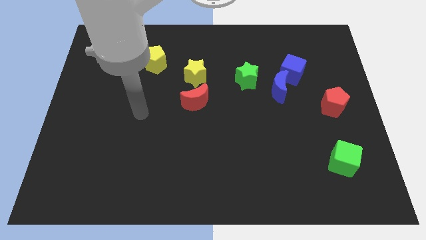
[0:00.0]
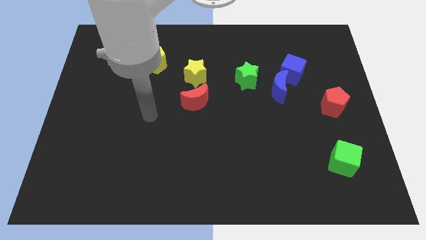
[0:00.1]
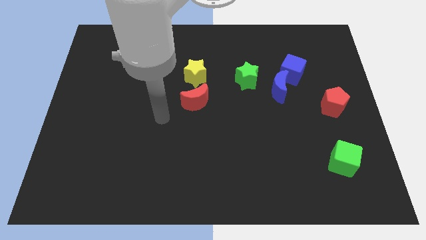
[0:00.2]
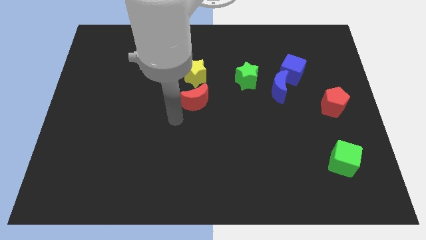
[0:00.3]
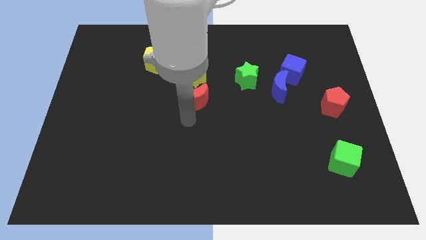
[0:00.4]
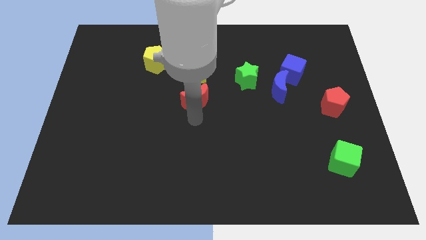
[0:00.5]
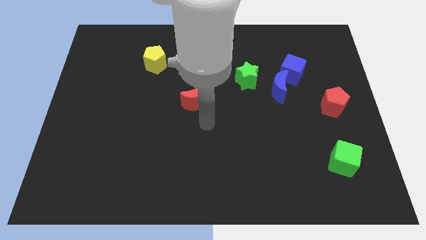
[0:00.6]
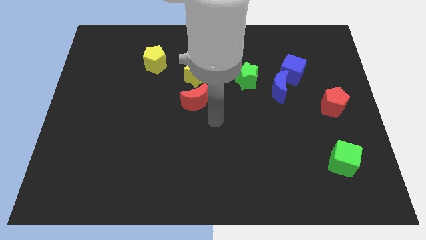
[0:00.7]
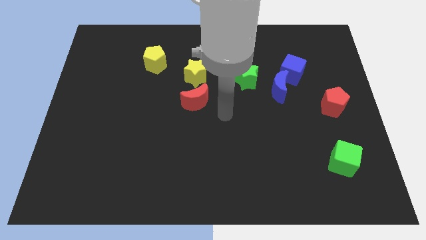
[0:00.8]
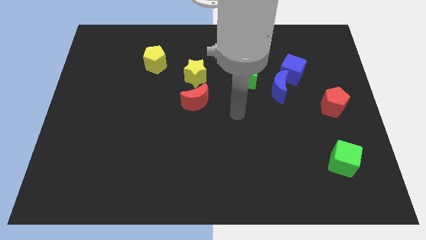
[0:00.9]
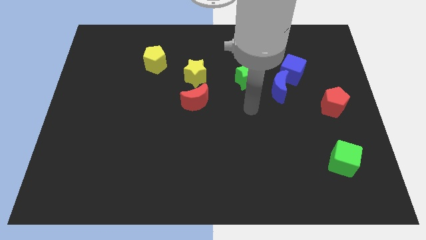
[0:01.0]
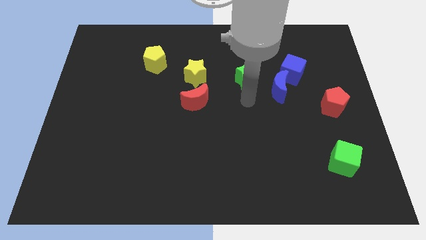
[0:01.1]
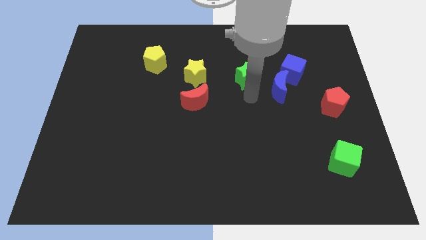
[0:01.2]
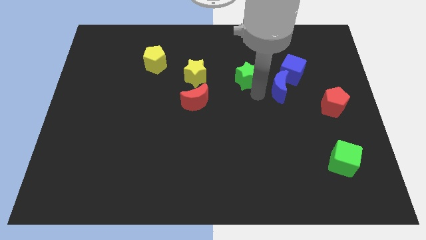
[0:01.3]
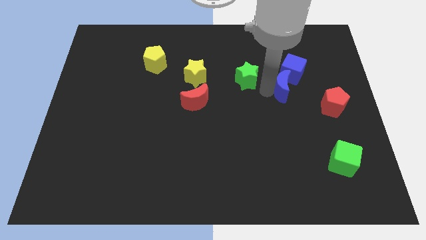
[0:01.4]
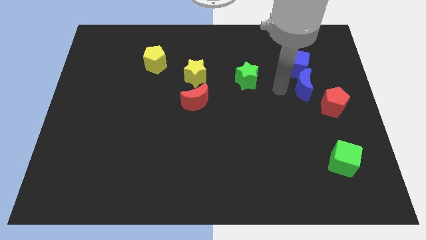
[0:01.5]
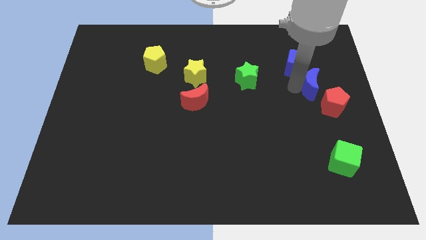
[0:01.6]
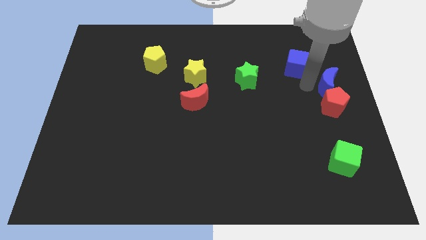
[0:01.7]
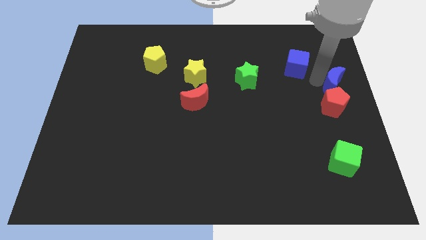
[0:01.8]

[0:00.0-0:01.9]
pull the blue cube apart from the blue moon

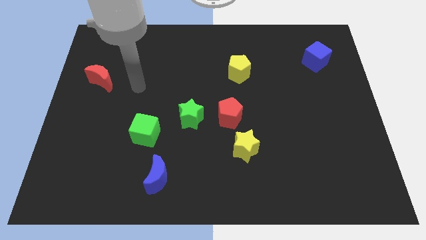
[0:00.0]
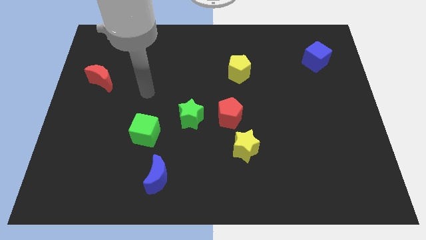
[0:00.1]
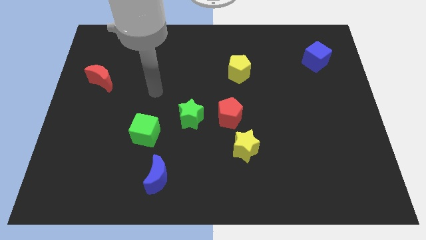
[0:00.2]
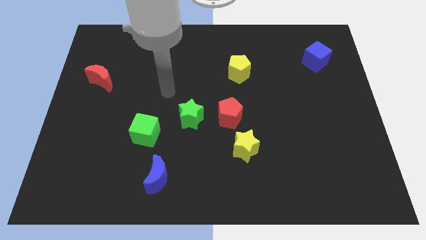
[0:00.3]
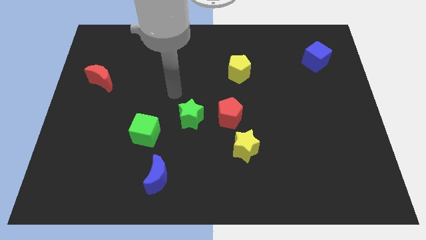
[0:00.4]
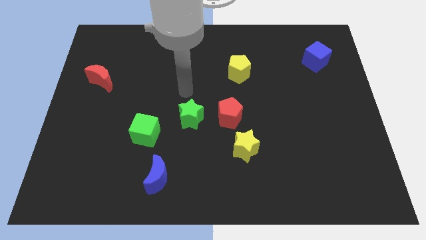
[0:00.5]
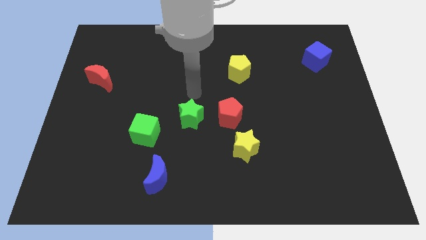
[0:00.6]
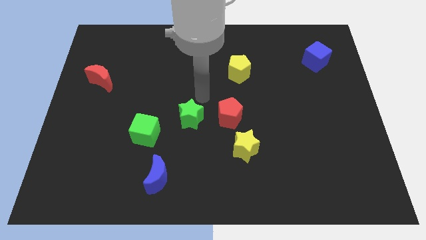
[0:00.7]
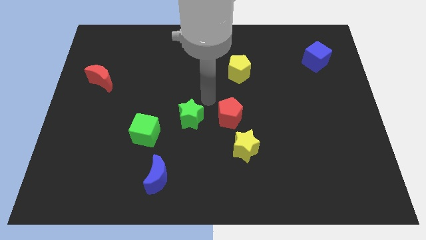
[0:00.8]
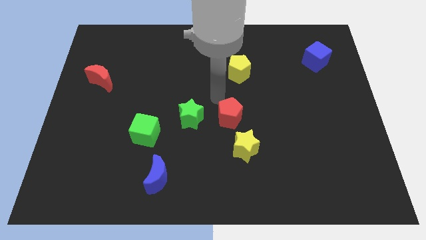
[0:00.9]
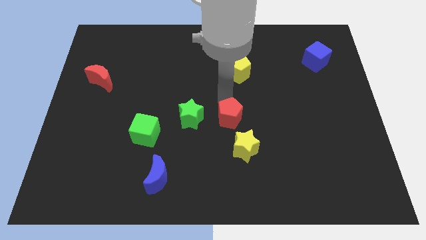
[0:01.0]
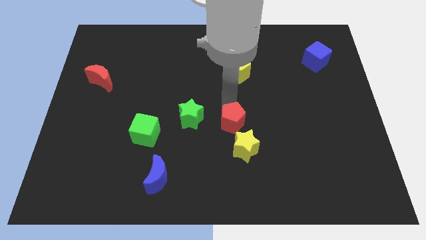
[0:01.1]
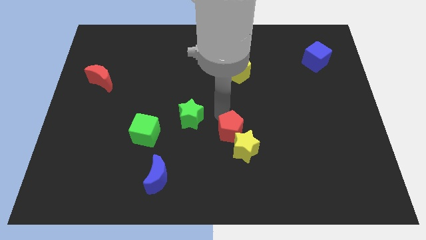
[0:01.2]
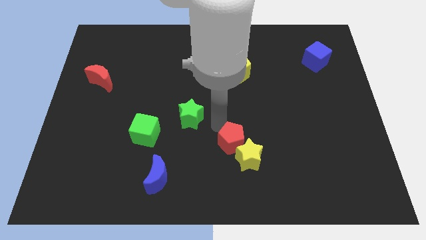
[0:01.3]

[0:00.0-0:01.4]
separate the green star from the red pentagon

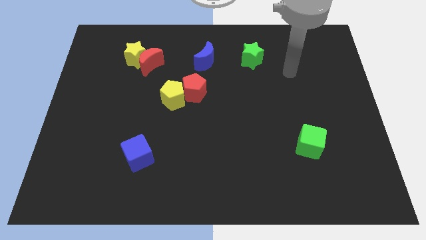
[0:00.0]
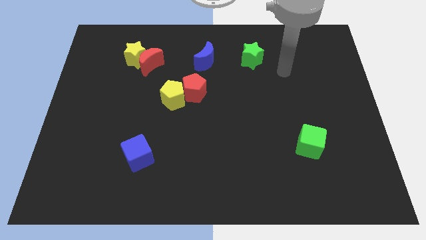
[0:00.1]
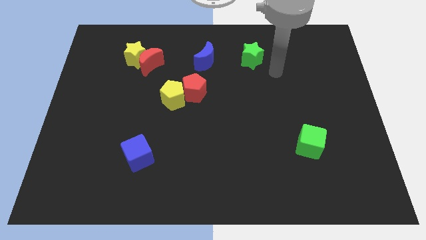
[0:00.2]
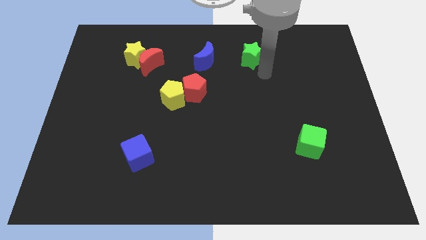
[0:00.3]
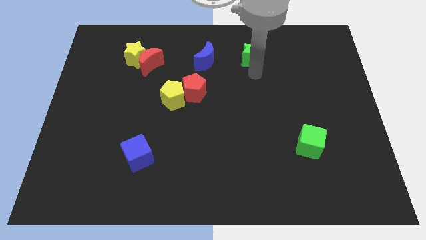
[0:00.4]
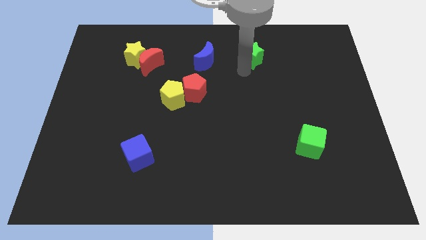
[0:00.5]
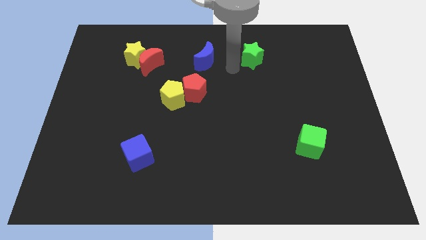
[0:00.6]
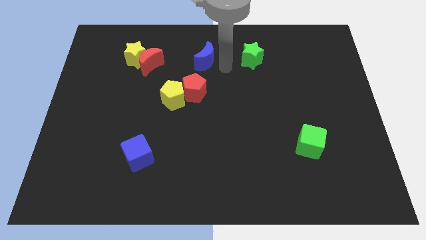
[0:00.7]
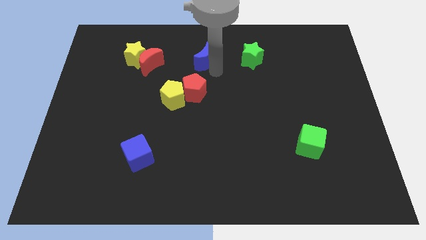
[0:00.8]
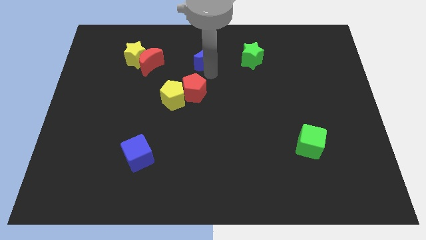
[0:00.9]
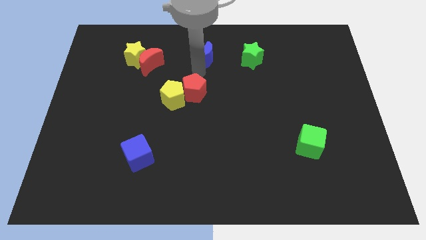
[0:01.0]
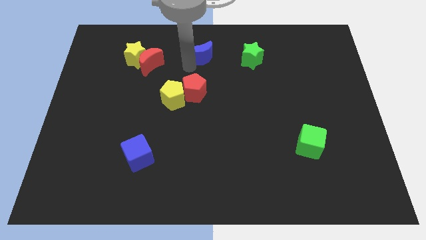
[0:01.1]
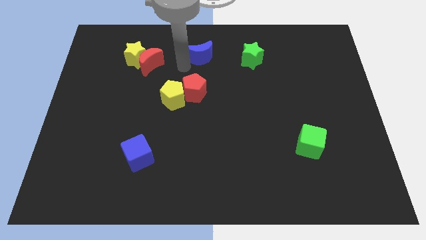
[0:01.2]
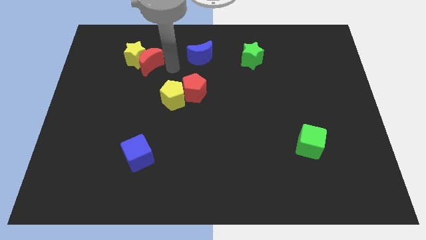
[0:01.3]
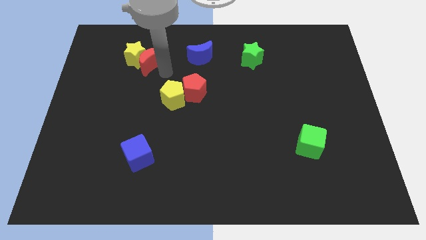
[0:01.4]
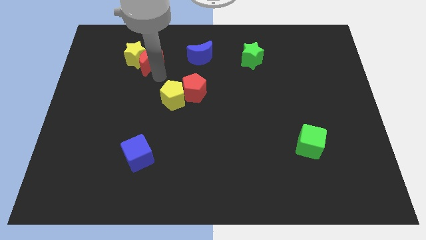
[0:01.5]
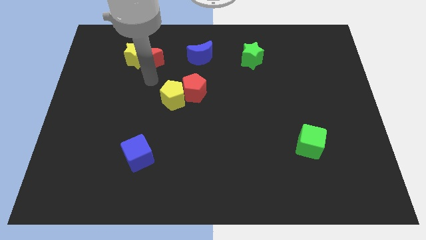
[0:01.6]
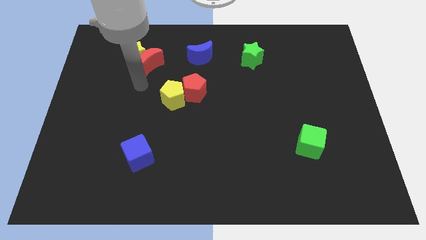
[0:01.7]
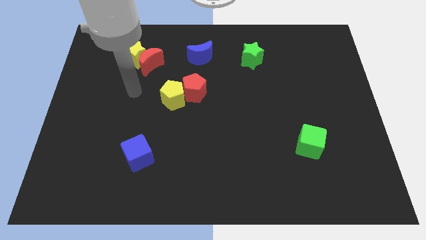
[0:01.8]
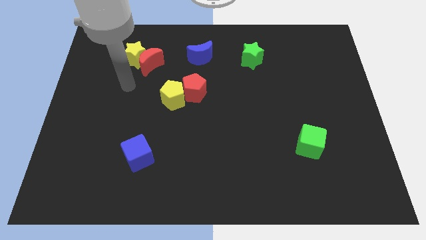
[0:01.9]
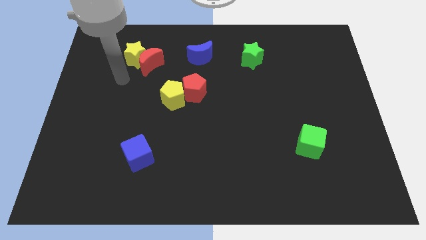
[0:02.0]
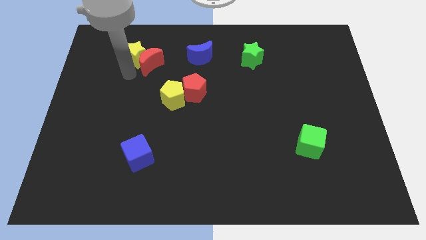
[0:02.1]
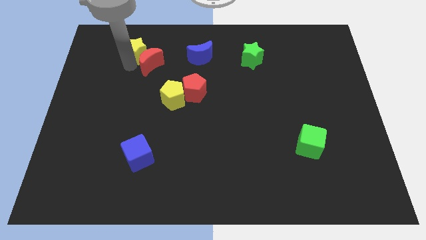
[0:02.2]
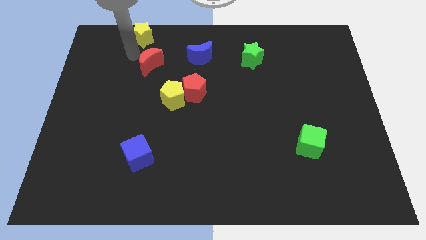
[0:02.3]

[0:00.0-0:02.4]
separate the red moon from the yellow star

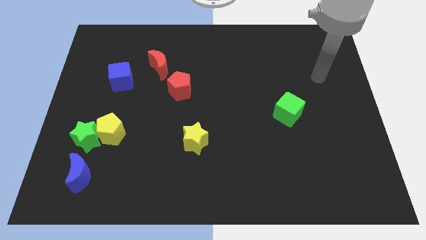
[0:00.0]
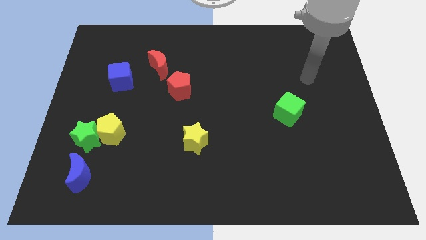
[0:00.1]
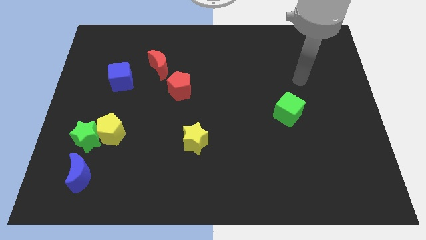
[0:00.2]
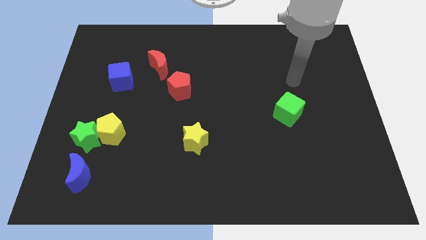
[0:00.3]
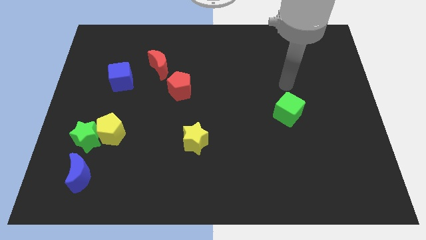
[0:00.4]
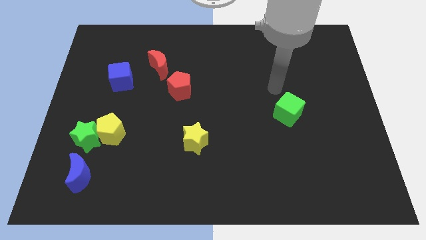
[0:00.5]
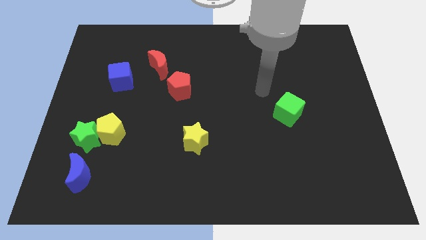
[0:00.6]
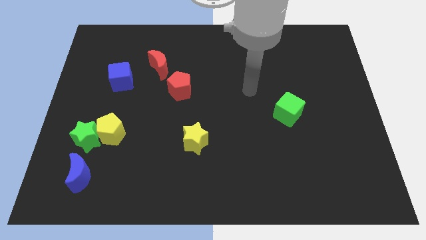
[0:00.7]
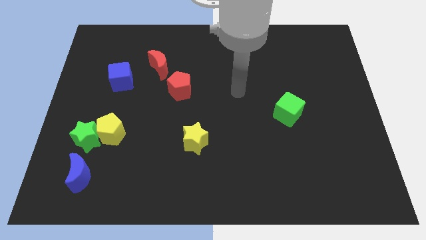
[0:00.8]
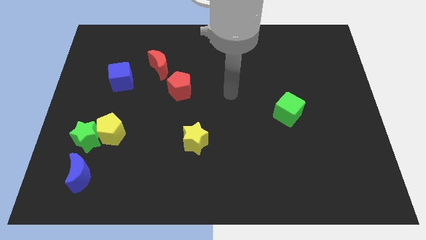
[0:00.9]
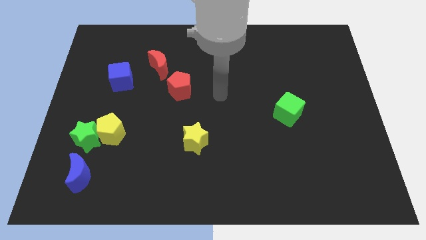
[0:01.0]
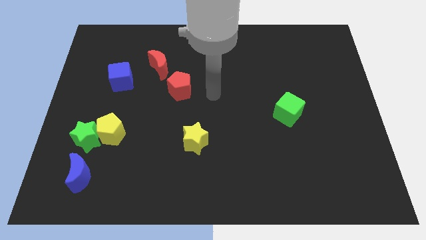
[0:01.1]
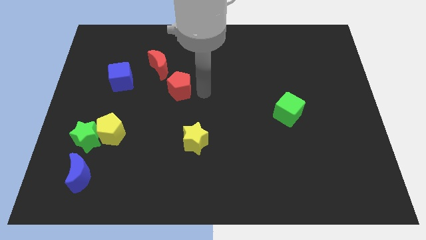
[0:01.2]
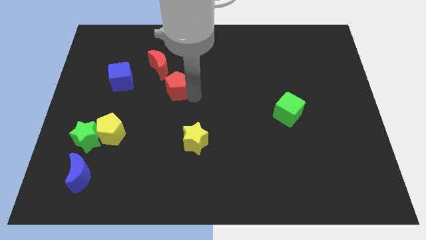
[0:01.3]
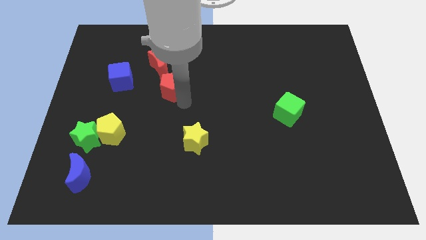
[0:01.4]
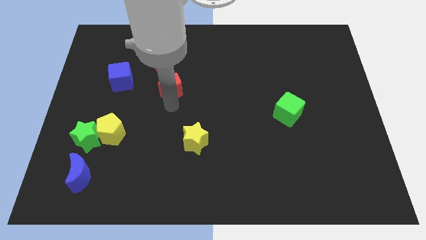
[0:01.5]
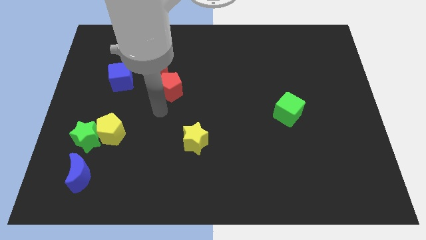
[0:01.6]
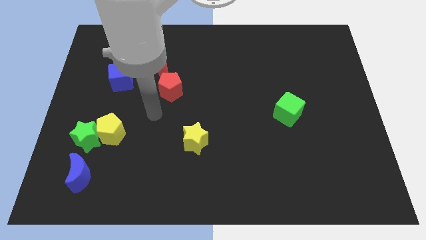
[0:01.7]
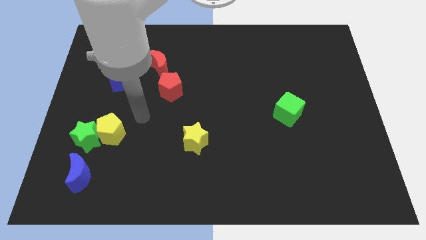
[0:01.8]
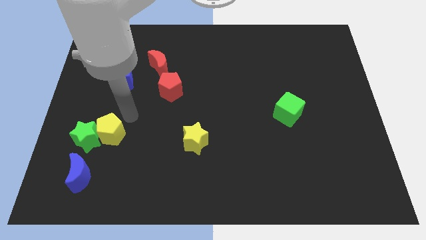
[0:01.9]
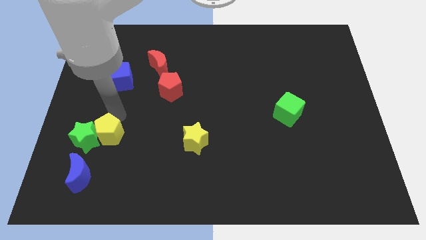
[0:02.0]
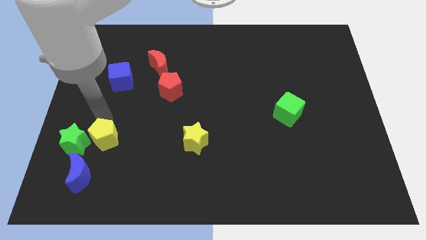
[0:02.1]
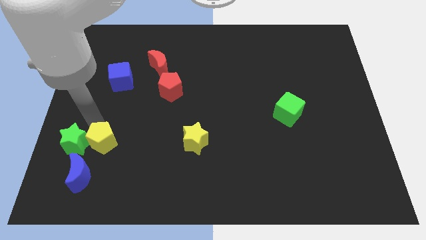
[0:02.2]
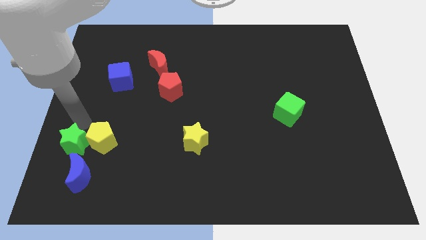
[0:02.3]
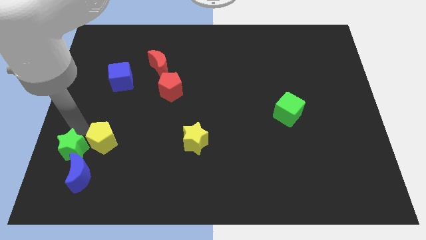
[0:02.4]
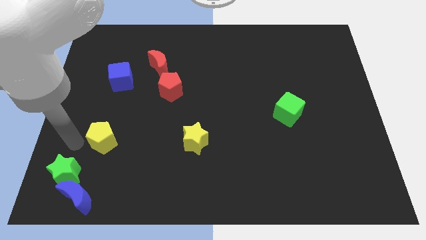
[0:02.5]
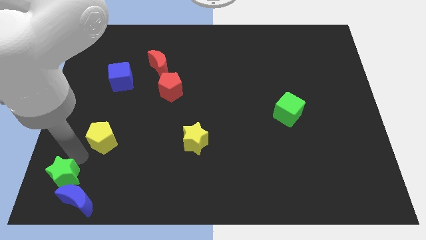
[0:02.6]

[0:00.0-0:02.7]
pull the yellow pentagon apart from the green star

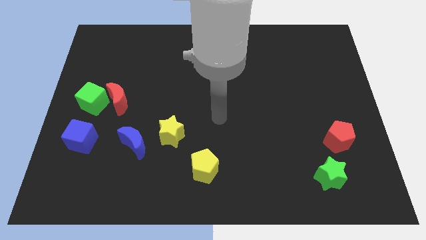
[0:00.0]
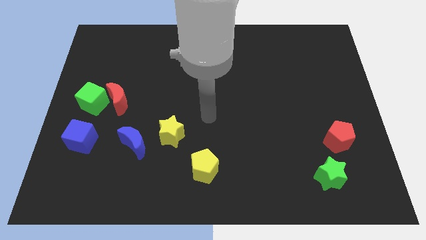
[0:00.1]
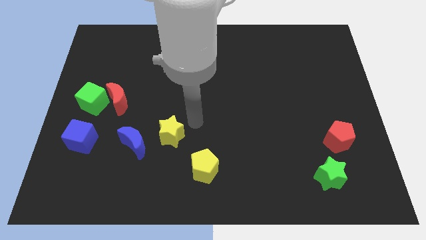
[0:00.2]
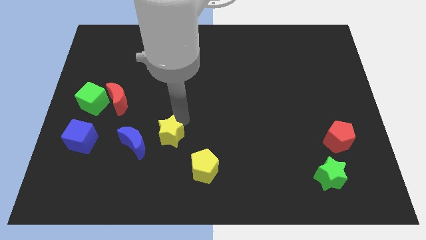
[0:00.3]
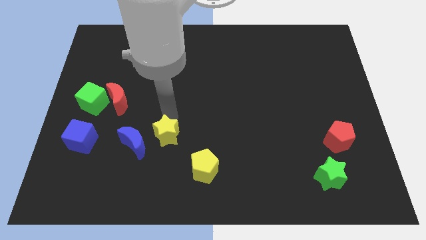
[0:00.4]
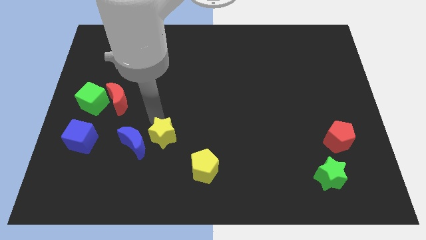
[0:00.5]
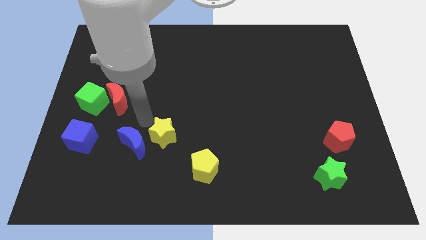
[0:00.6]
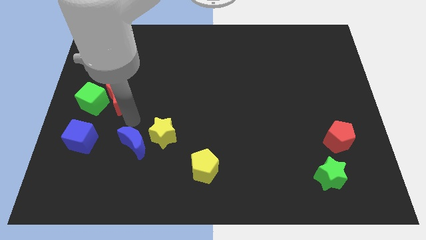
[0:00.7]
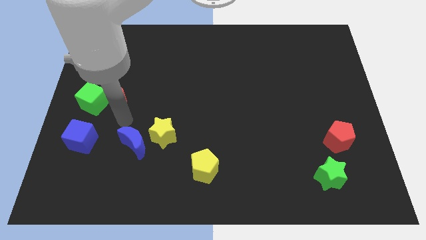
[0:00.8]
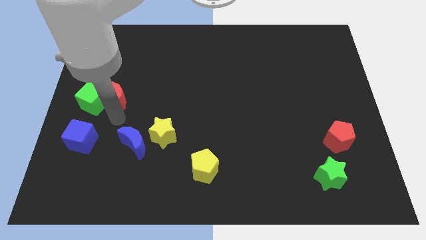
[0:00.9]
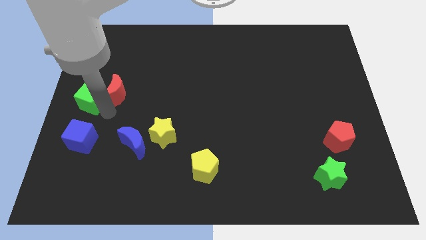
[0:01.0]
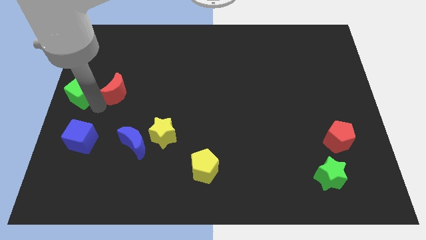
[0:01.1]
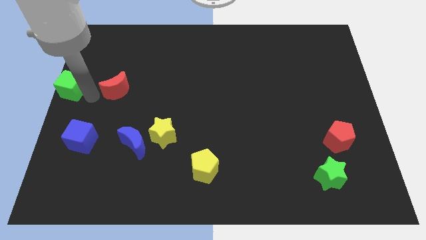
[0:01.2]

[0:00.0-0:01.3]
move the red moon away from the green cube
